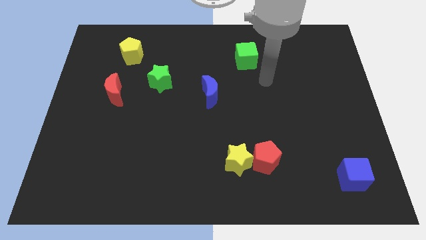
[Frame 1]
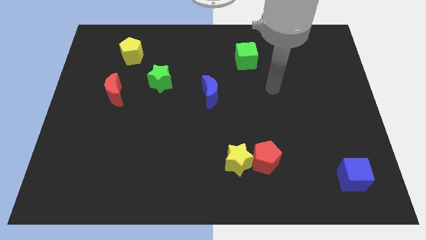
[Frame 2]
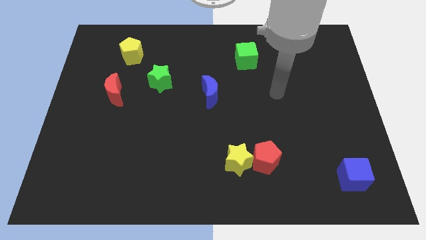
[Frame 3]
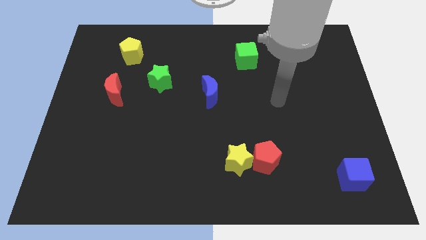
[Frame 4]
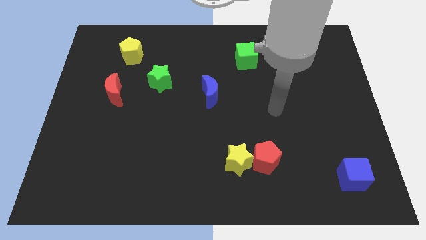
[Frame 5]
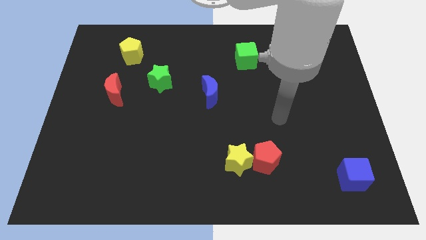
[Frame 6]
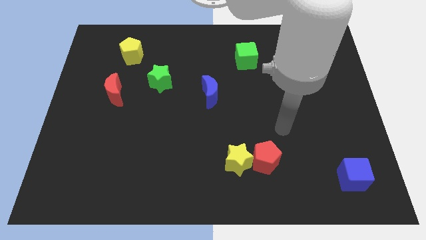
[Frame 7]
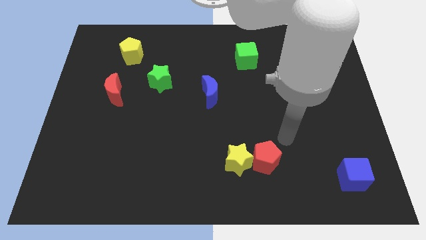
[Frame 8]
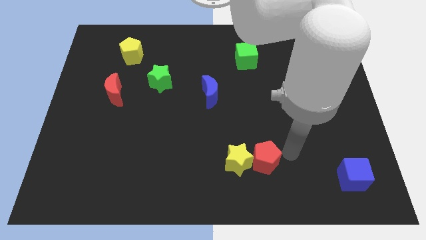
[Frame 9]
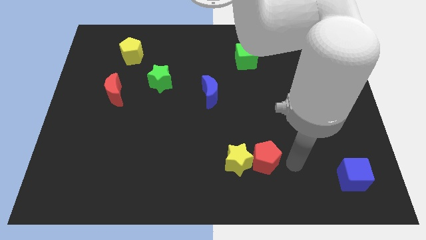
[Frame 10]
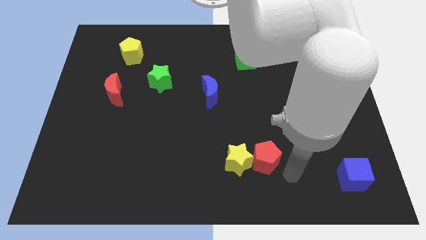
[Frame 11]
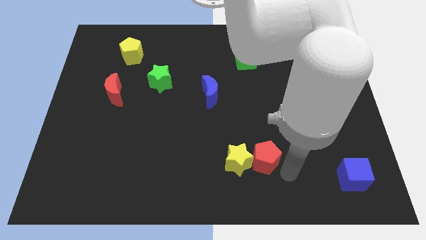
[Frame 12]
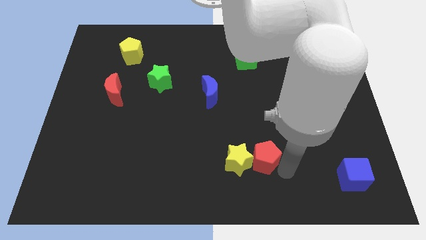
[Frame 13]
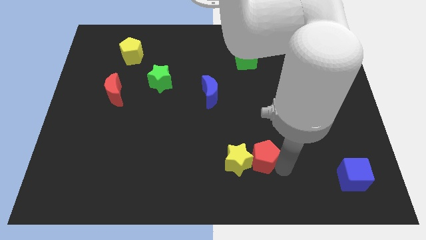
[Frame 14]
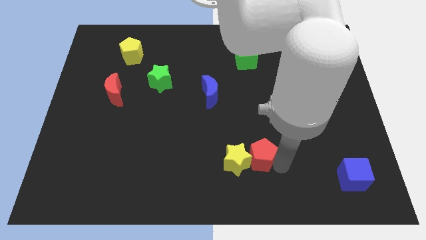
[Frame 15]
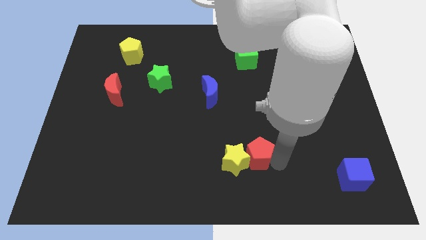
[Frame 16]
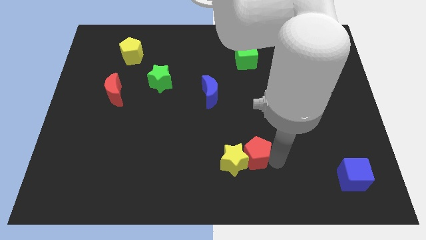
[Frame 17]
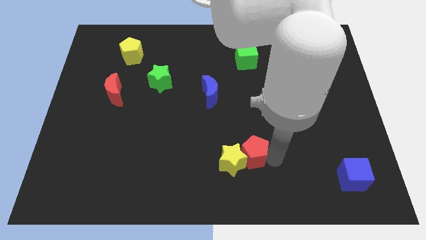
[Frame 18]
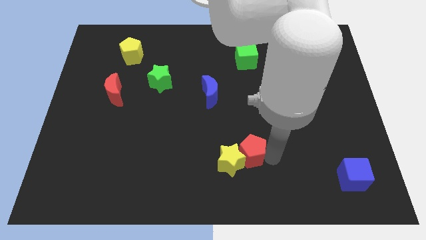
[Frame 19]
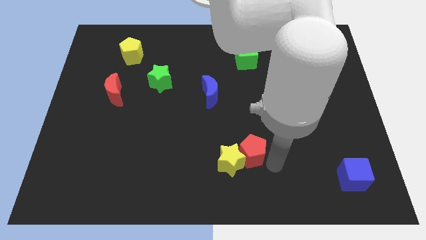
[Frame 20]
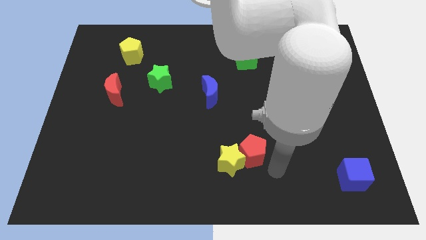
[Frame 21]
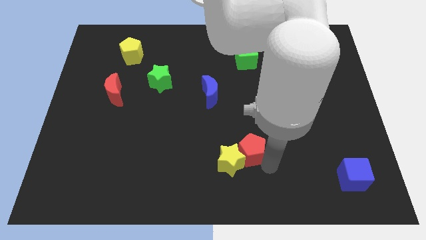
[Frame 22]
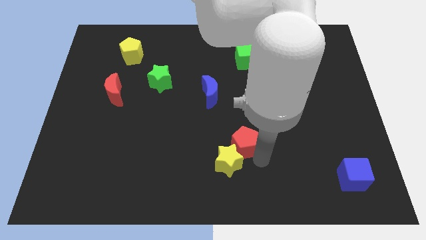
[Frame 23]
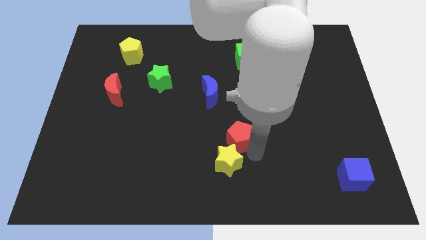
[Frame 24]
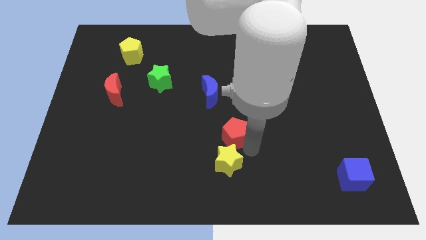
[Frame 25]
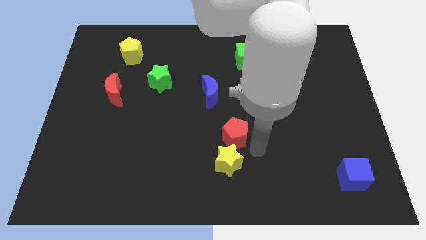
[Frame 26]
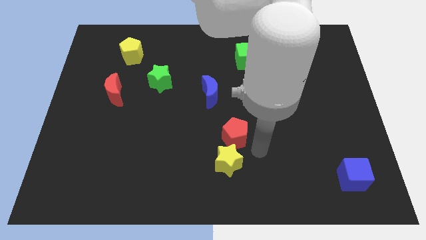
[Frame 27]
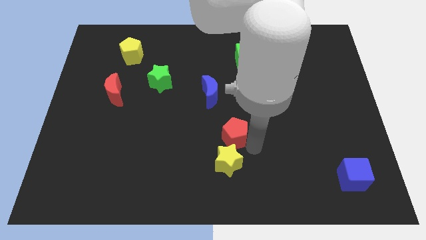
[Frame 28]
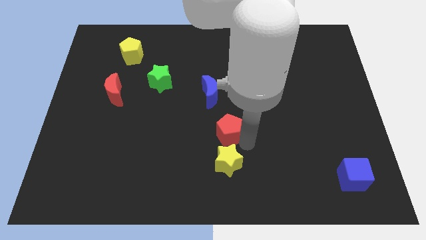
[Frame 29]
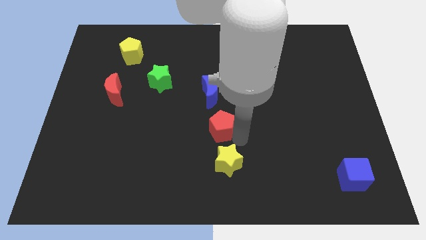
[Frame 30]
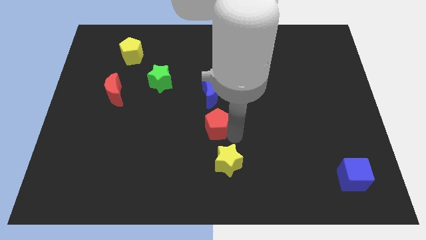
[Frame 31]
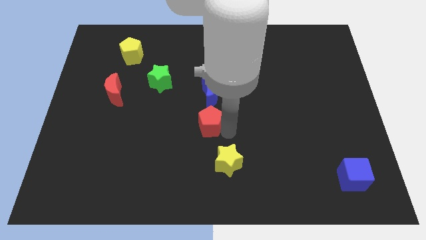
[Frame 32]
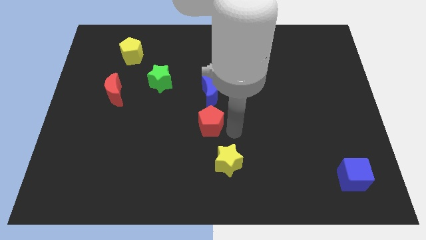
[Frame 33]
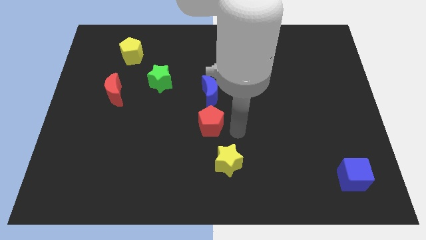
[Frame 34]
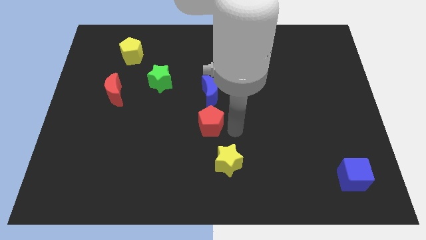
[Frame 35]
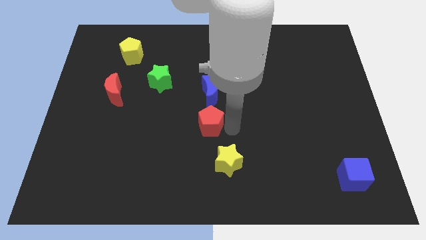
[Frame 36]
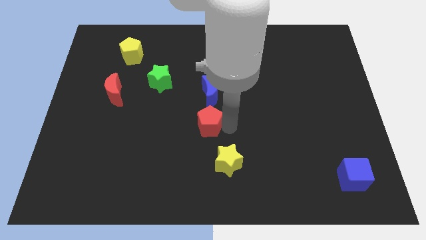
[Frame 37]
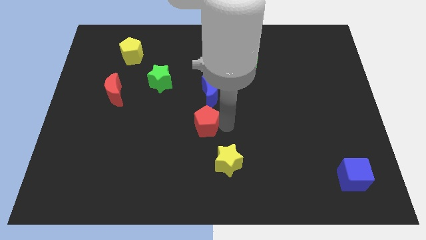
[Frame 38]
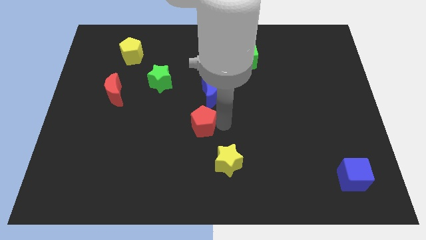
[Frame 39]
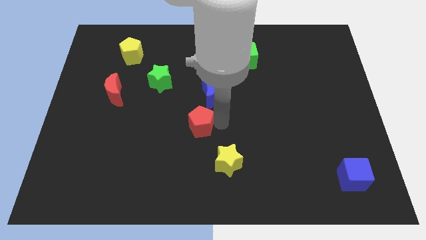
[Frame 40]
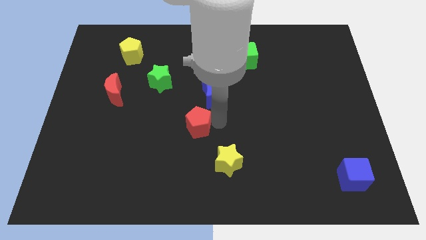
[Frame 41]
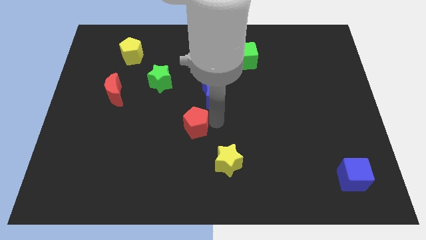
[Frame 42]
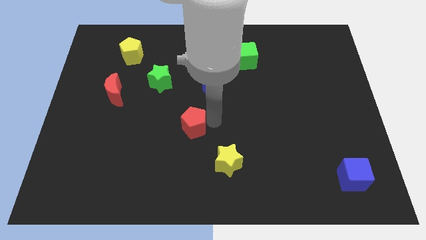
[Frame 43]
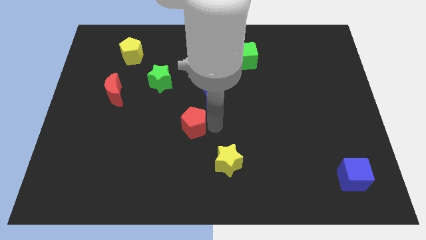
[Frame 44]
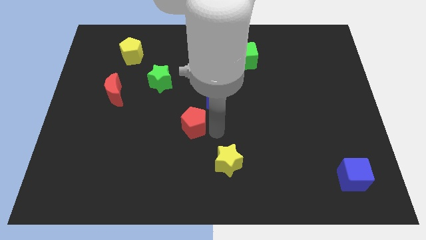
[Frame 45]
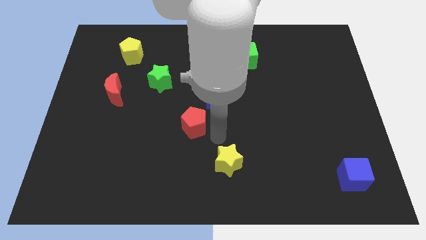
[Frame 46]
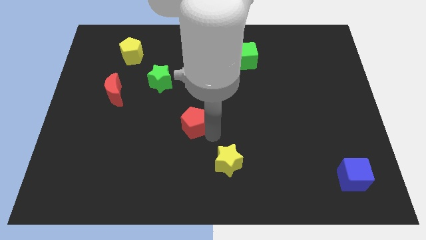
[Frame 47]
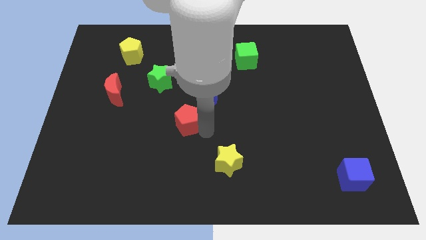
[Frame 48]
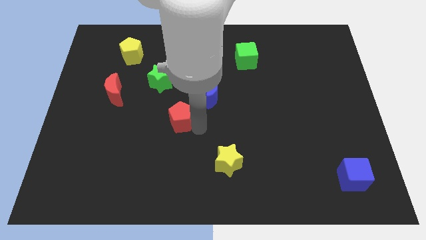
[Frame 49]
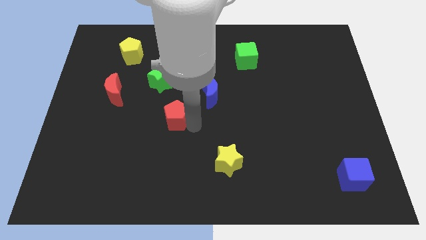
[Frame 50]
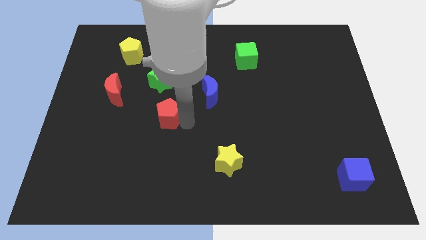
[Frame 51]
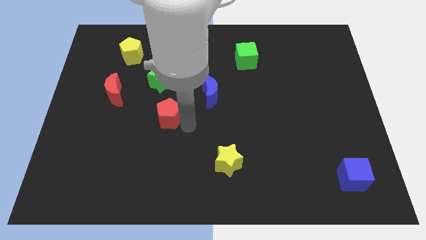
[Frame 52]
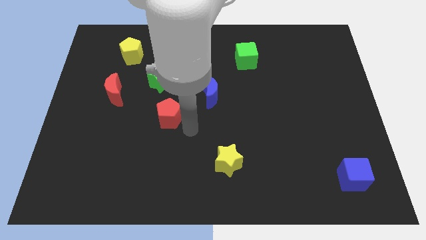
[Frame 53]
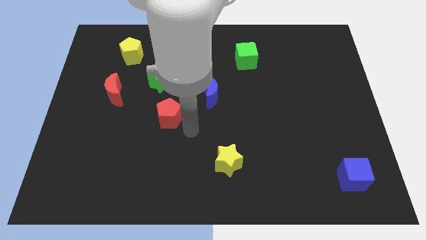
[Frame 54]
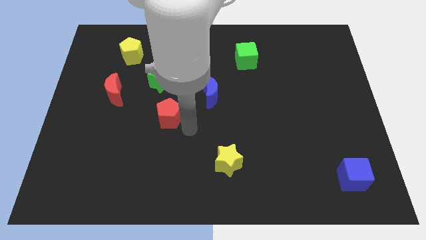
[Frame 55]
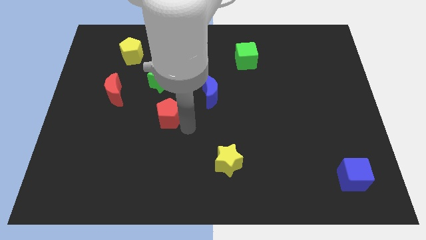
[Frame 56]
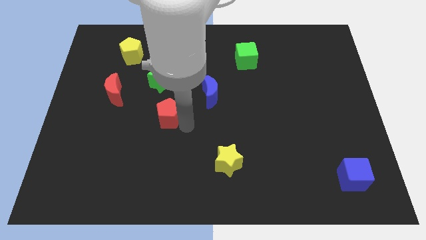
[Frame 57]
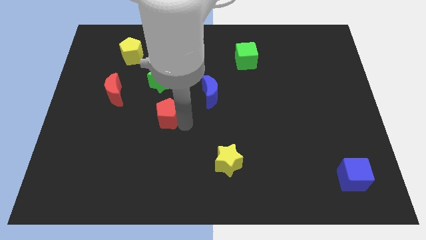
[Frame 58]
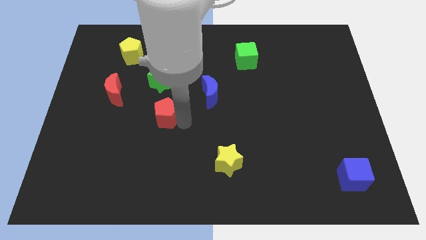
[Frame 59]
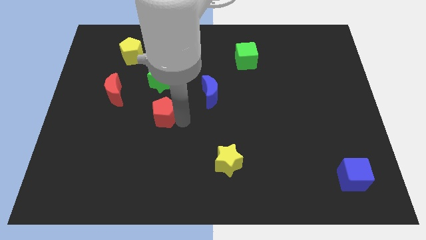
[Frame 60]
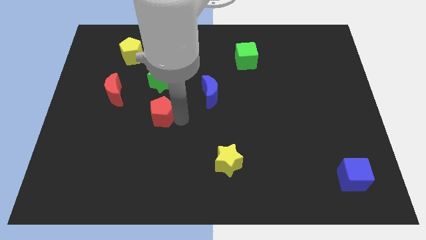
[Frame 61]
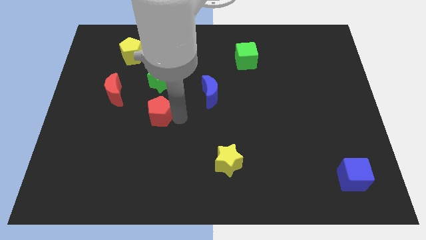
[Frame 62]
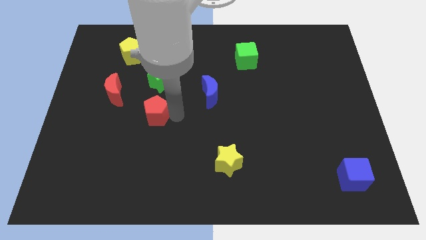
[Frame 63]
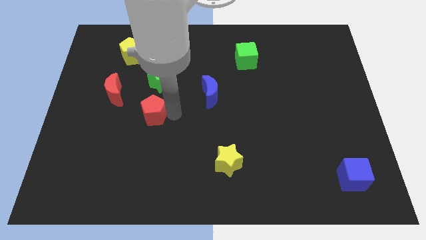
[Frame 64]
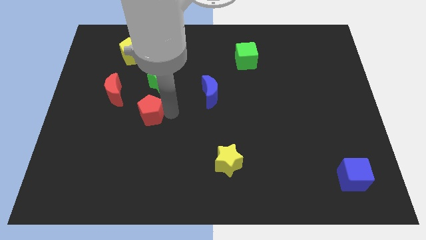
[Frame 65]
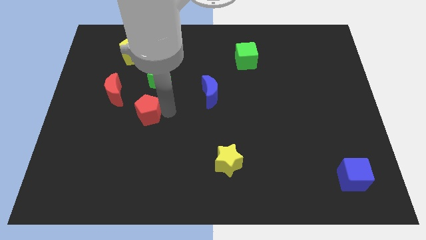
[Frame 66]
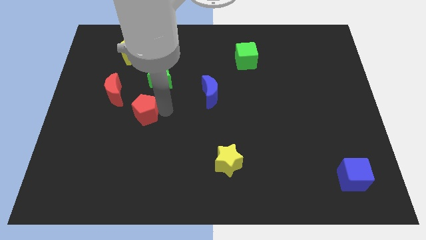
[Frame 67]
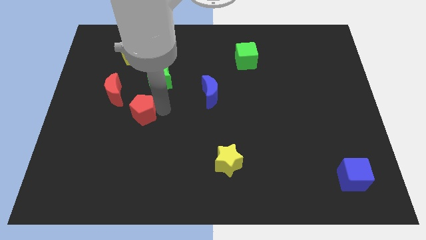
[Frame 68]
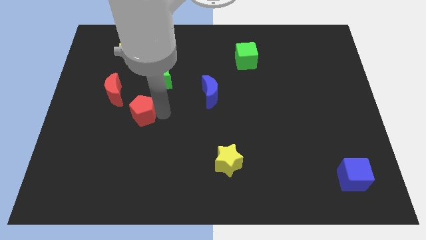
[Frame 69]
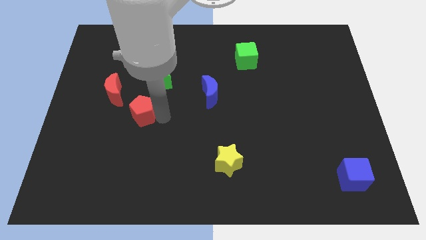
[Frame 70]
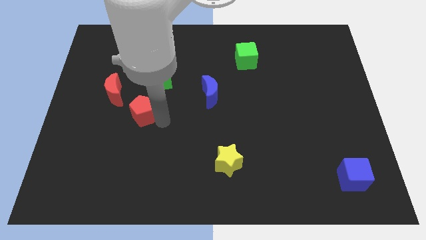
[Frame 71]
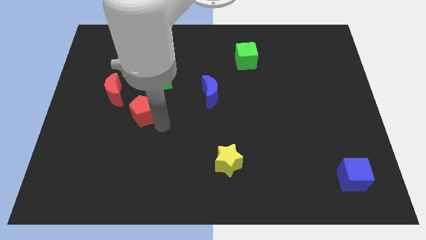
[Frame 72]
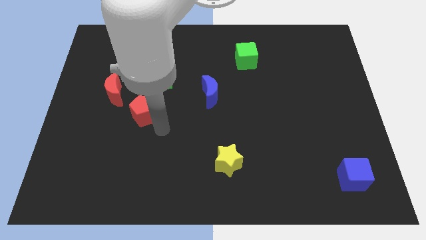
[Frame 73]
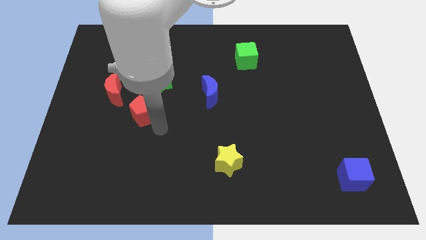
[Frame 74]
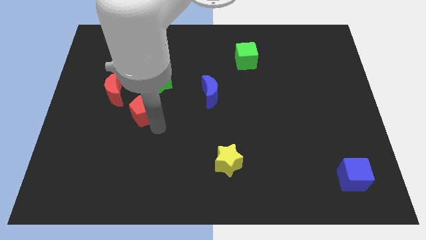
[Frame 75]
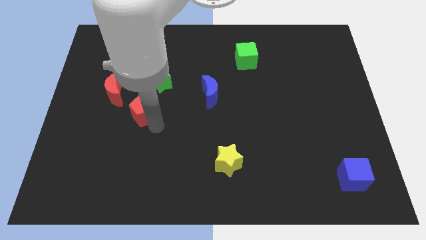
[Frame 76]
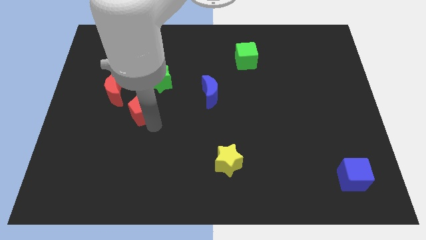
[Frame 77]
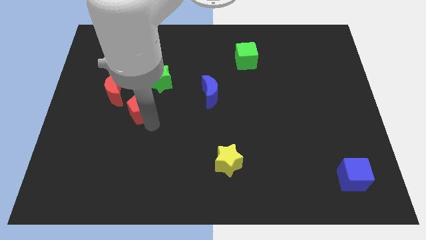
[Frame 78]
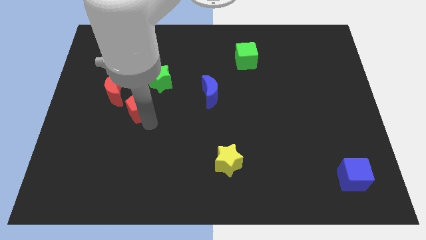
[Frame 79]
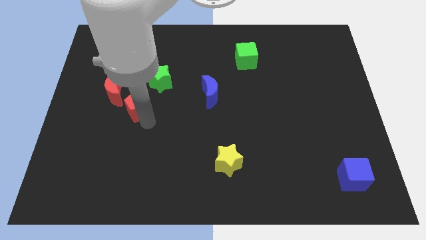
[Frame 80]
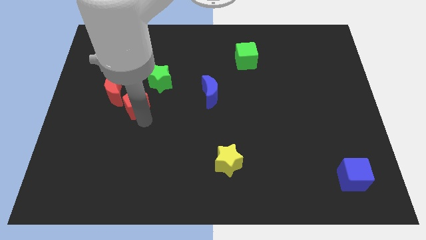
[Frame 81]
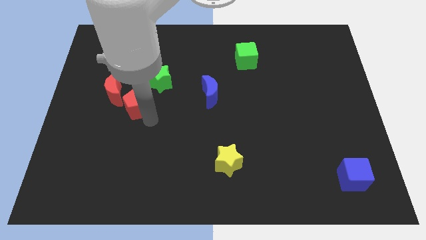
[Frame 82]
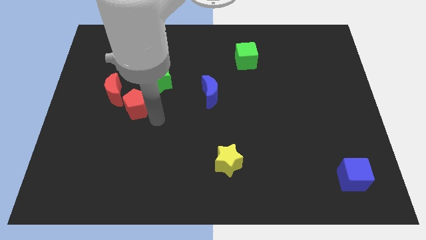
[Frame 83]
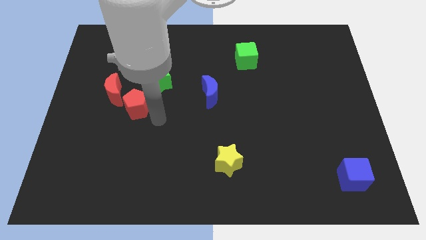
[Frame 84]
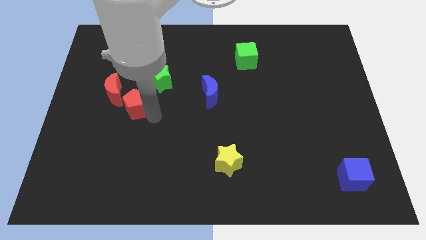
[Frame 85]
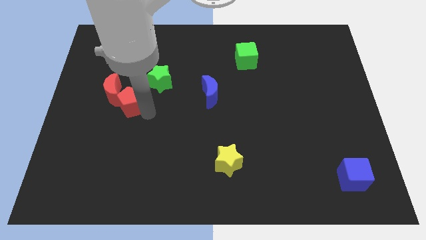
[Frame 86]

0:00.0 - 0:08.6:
slide the red pentagon towards the red moon
